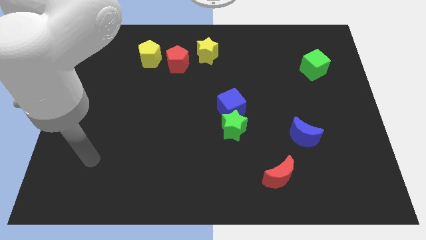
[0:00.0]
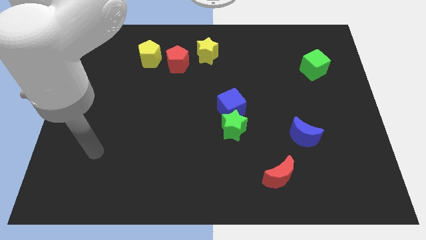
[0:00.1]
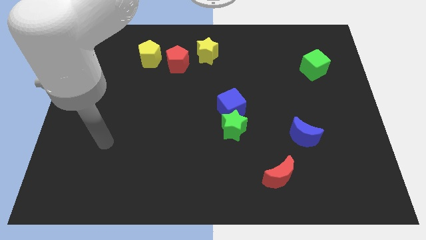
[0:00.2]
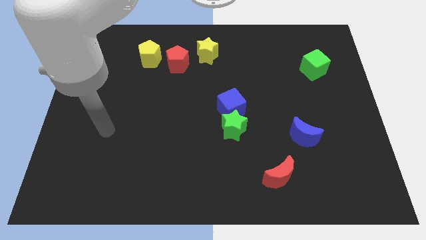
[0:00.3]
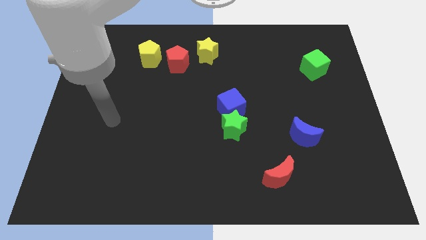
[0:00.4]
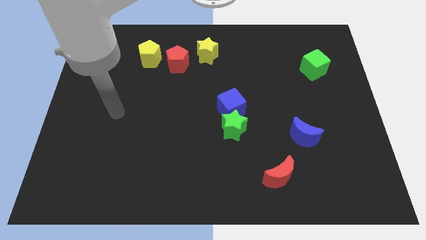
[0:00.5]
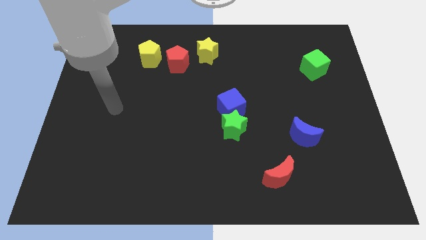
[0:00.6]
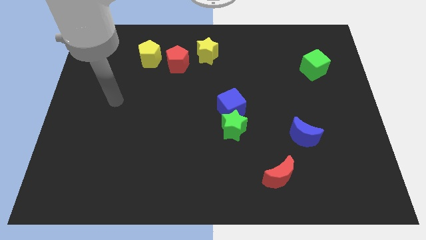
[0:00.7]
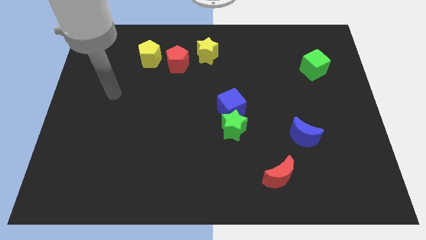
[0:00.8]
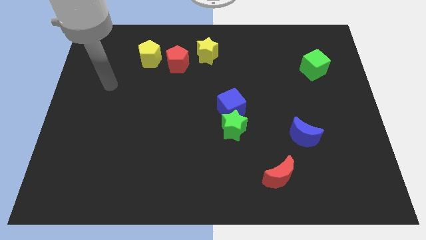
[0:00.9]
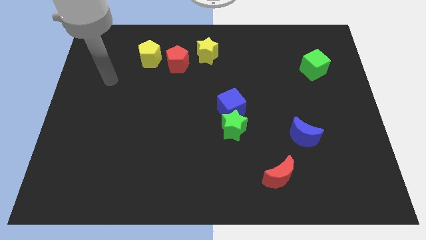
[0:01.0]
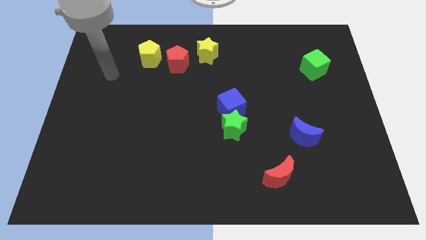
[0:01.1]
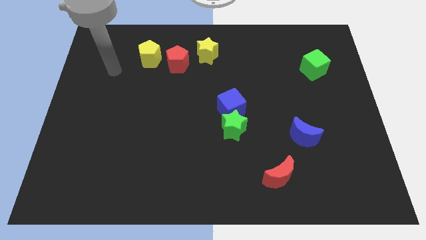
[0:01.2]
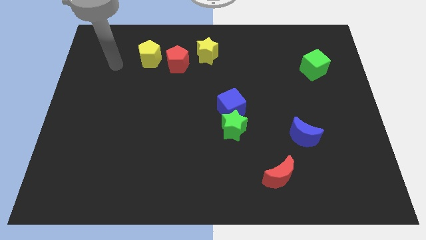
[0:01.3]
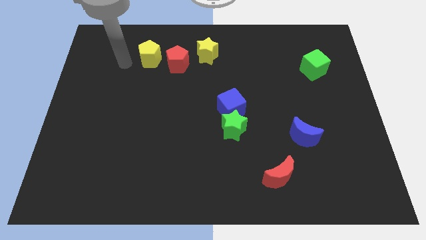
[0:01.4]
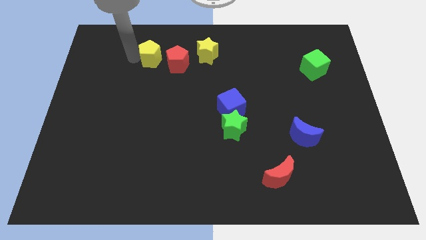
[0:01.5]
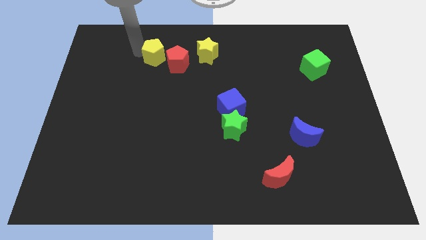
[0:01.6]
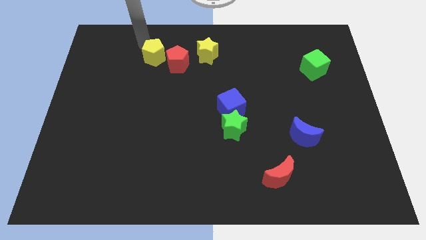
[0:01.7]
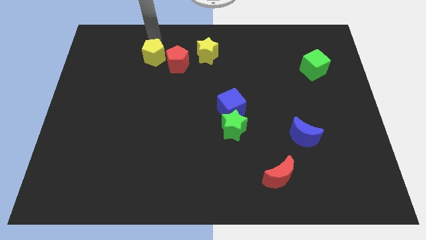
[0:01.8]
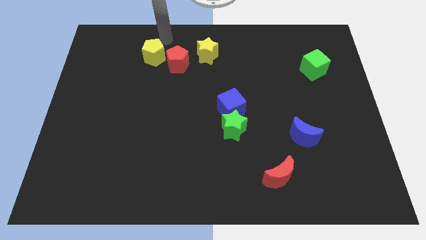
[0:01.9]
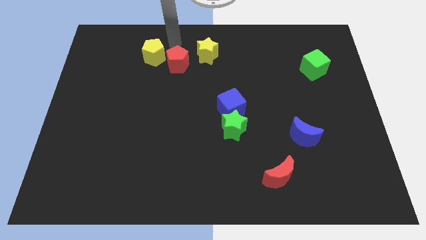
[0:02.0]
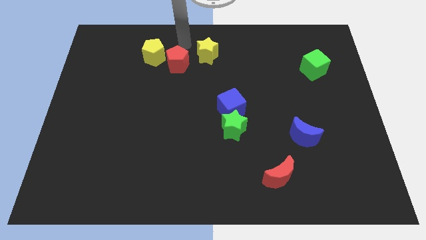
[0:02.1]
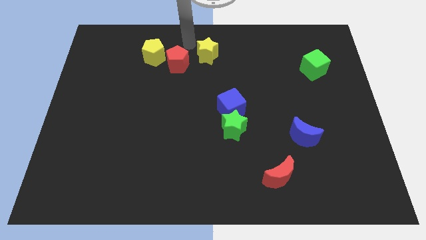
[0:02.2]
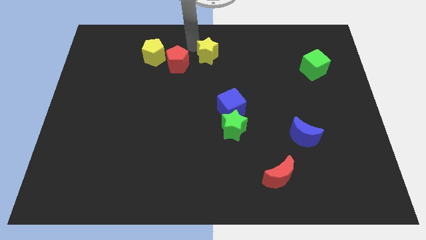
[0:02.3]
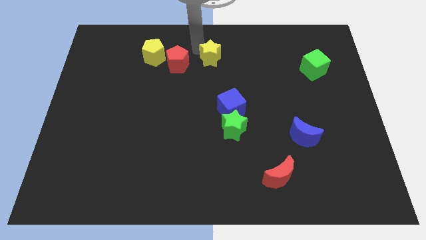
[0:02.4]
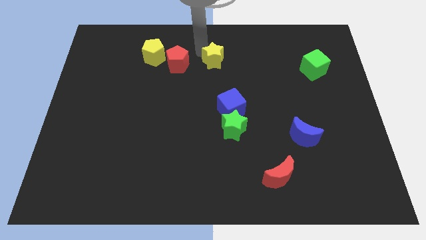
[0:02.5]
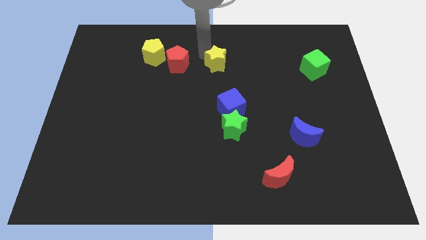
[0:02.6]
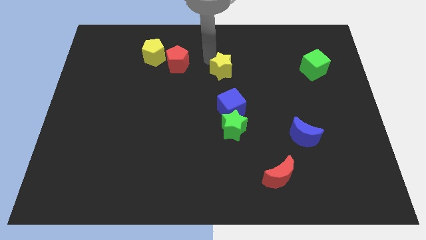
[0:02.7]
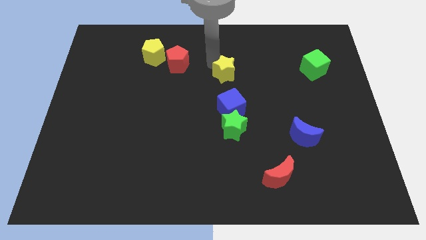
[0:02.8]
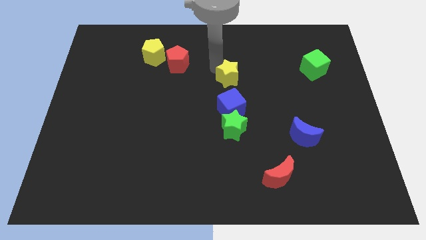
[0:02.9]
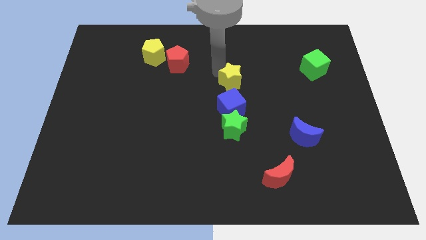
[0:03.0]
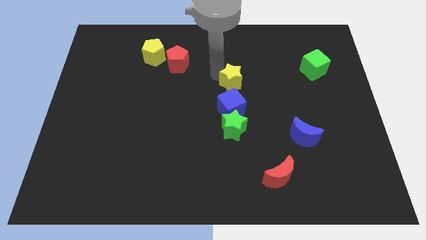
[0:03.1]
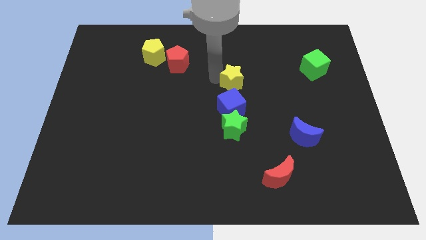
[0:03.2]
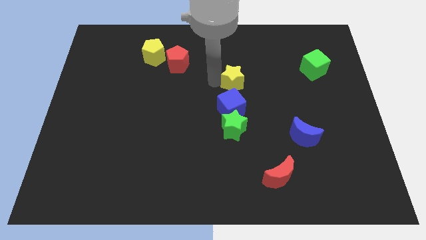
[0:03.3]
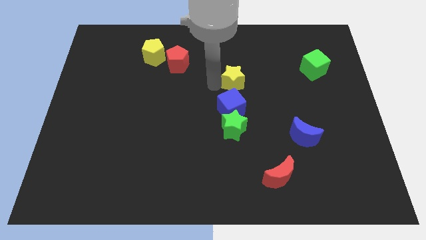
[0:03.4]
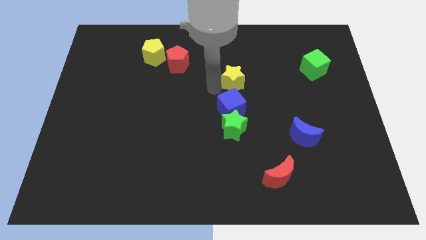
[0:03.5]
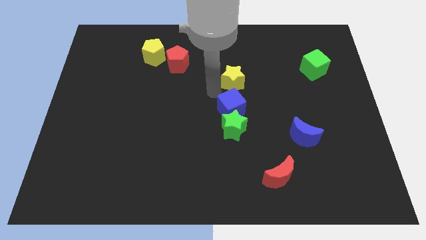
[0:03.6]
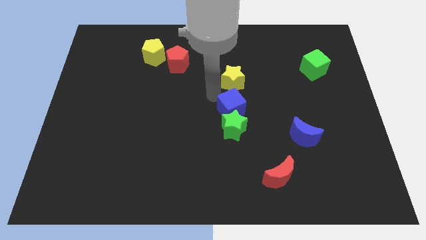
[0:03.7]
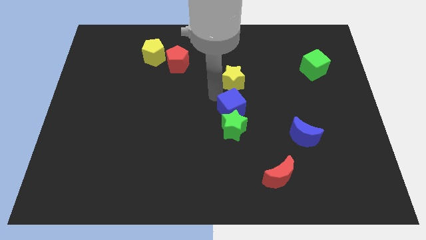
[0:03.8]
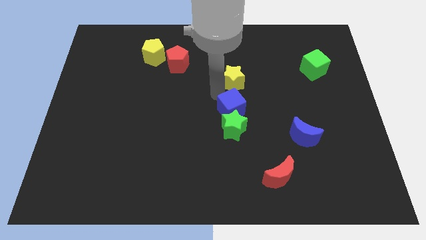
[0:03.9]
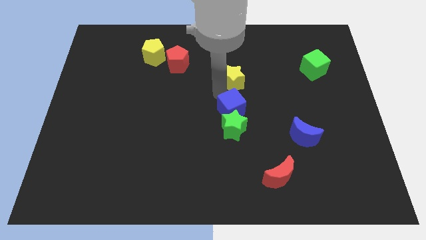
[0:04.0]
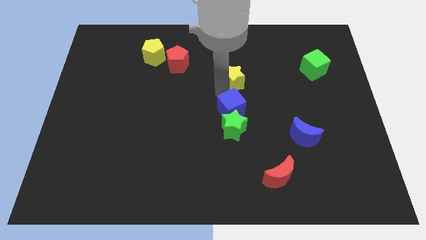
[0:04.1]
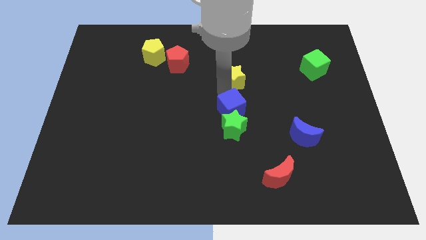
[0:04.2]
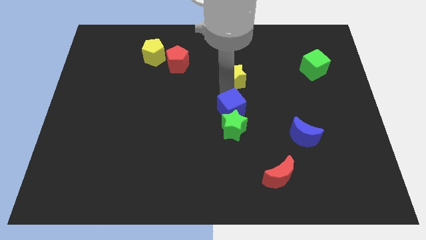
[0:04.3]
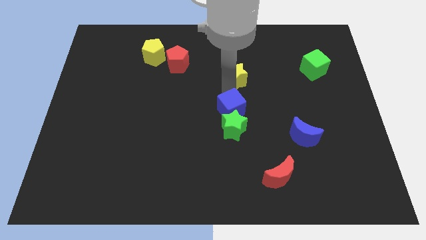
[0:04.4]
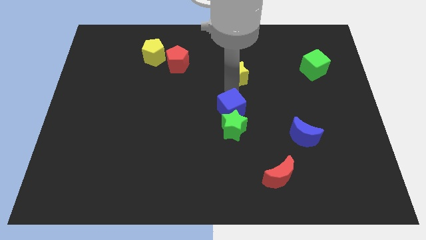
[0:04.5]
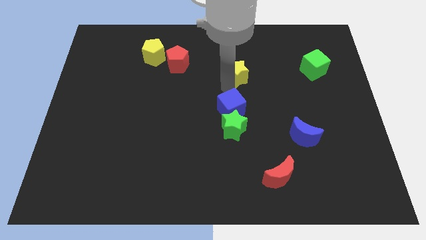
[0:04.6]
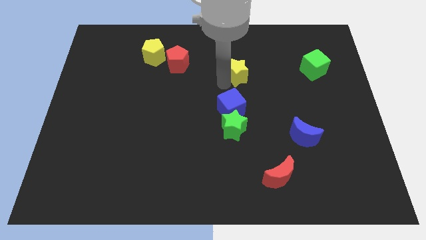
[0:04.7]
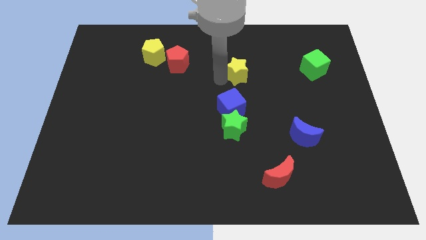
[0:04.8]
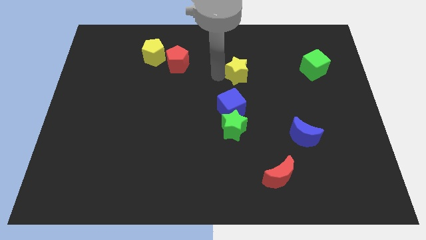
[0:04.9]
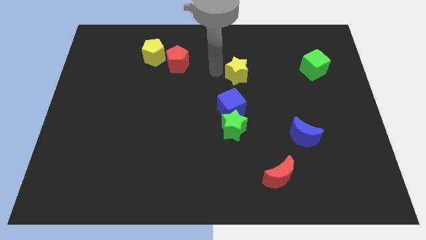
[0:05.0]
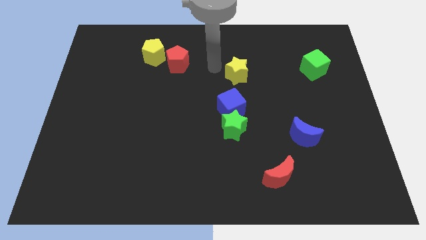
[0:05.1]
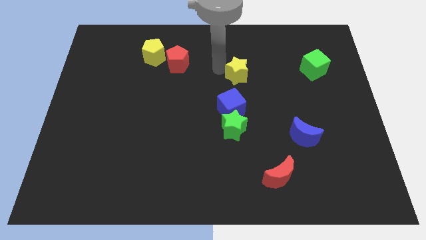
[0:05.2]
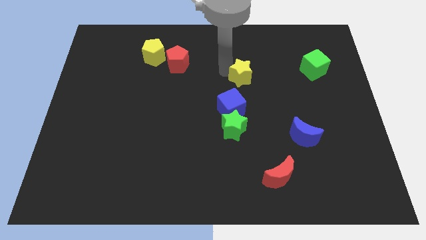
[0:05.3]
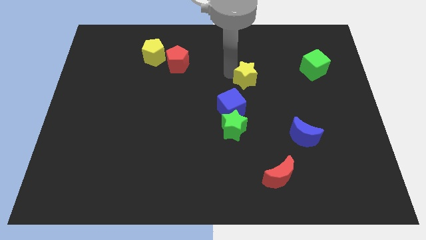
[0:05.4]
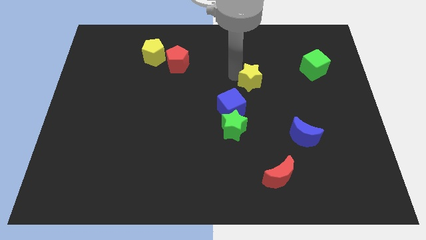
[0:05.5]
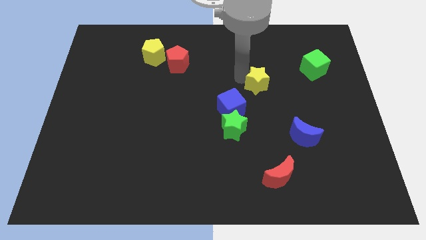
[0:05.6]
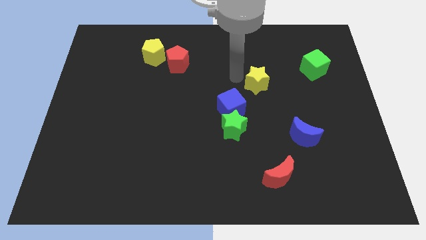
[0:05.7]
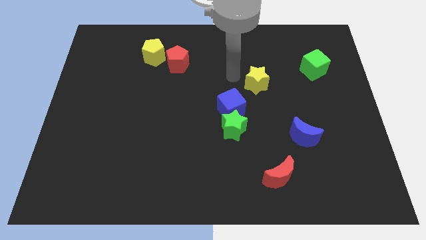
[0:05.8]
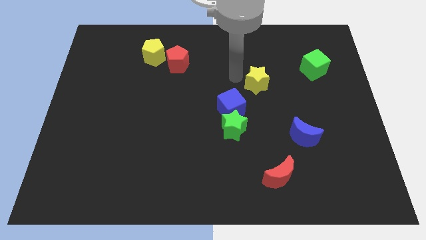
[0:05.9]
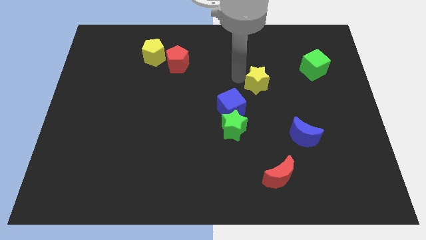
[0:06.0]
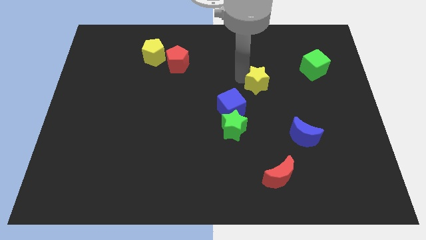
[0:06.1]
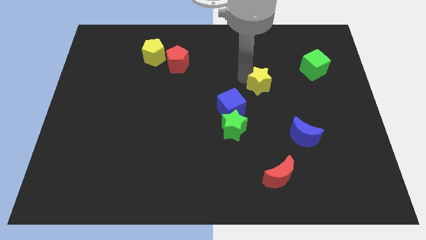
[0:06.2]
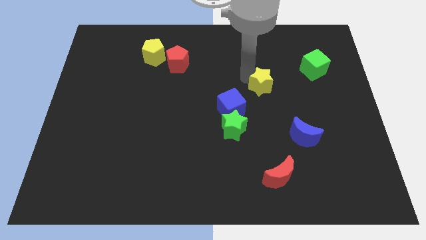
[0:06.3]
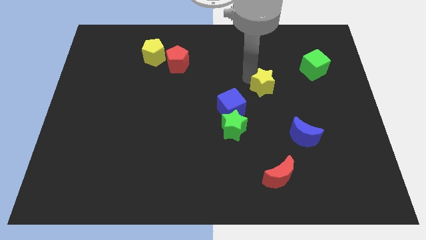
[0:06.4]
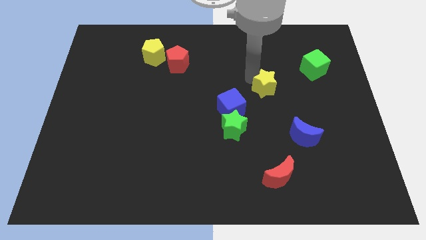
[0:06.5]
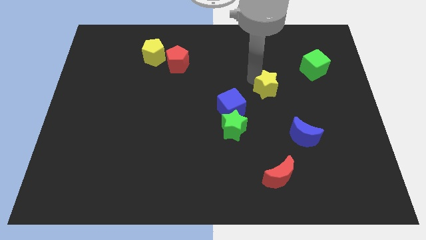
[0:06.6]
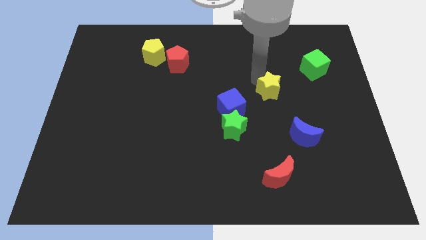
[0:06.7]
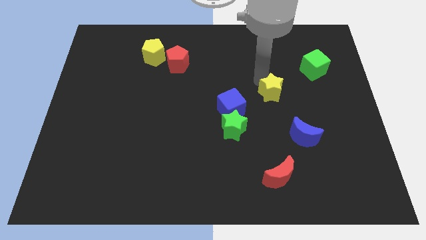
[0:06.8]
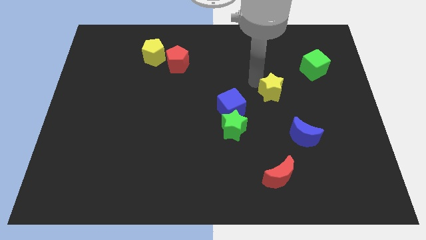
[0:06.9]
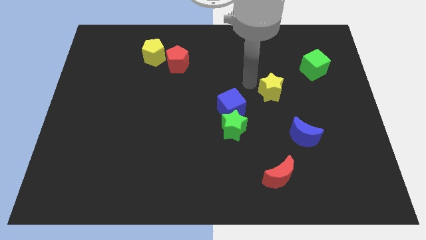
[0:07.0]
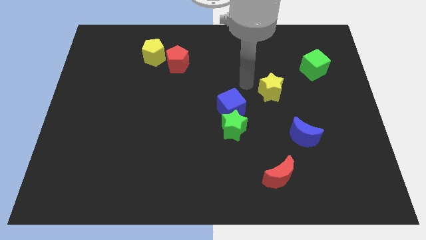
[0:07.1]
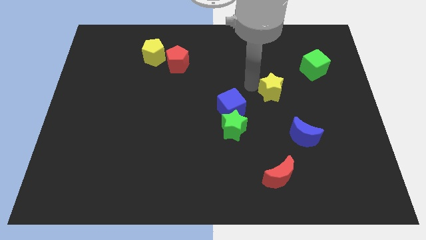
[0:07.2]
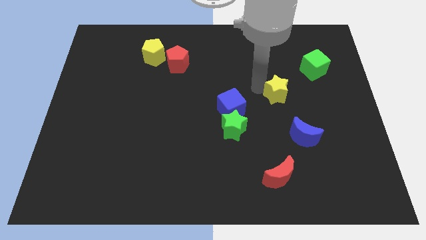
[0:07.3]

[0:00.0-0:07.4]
push the yellow star to the top side of the blue moon
